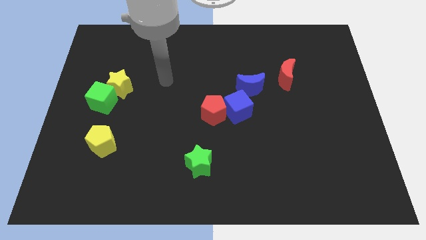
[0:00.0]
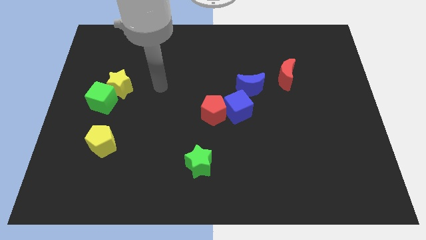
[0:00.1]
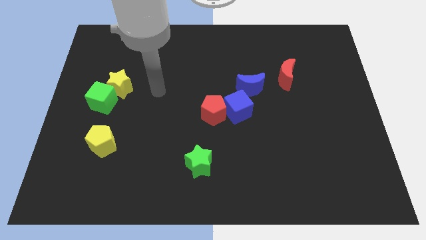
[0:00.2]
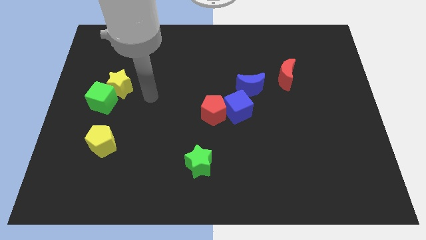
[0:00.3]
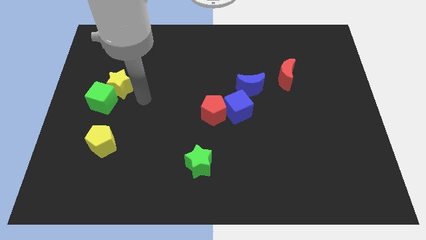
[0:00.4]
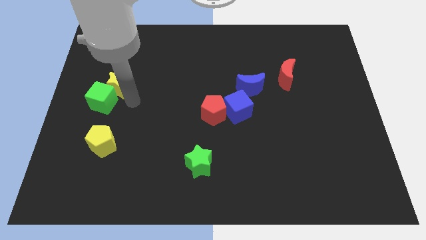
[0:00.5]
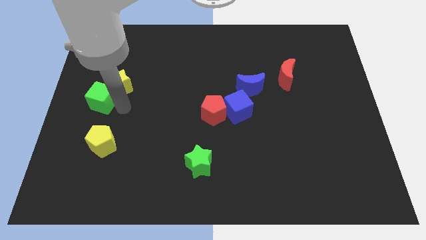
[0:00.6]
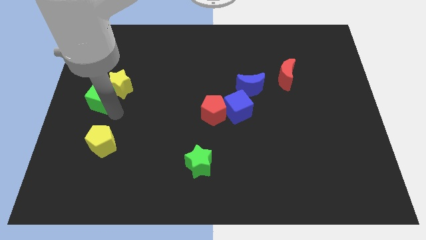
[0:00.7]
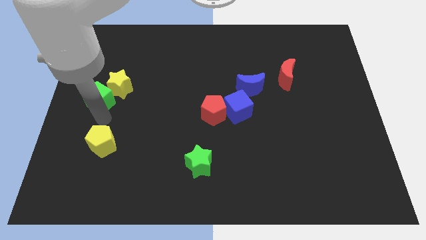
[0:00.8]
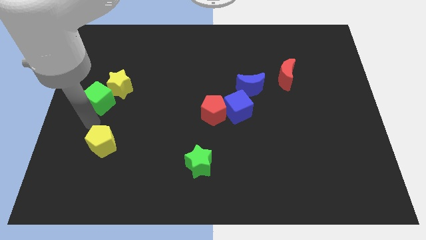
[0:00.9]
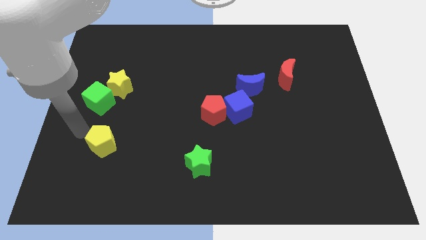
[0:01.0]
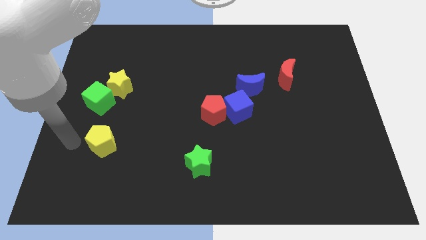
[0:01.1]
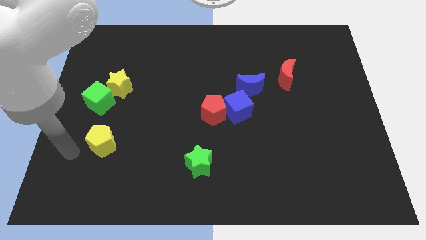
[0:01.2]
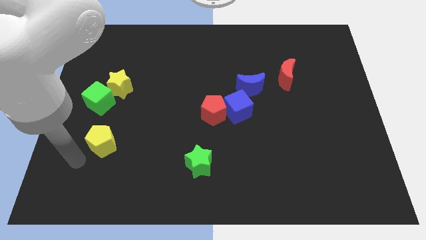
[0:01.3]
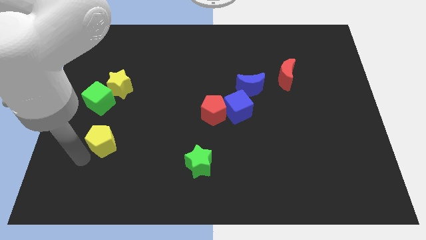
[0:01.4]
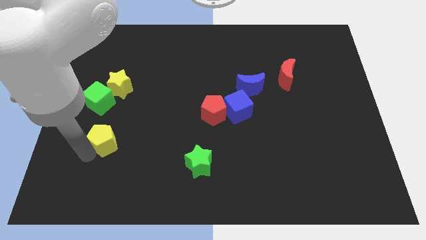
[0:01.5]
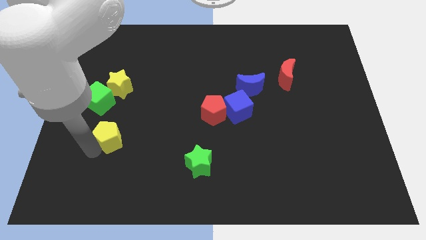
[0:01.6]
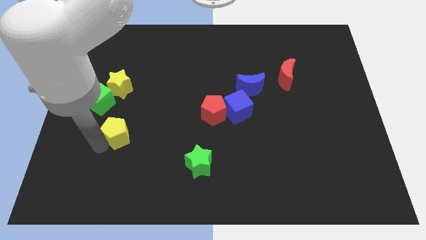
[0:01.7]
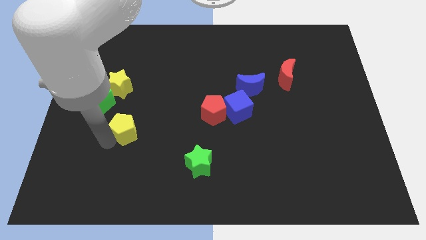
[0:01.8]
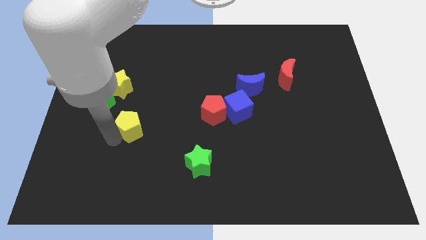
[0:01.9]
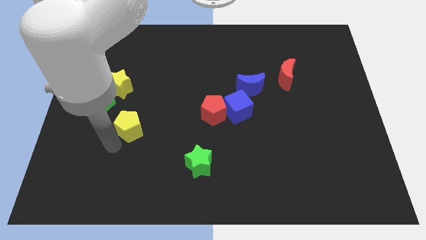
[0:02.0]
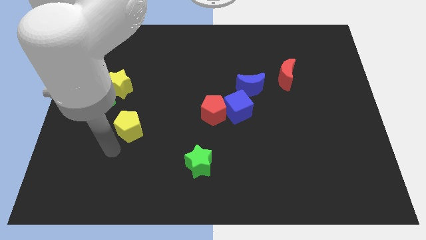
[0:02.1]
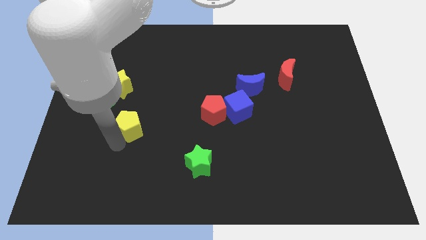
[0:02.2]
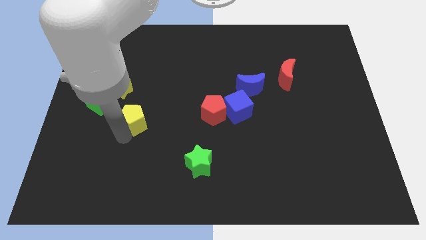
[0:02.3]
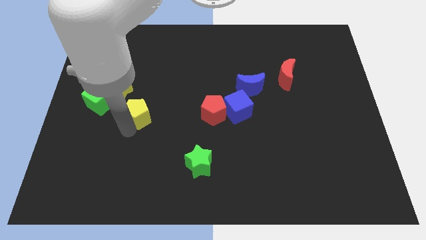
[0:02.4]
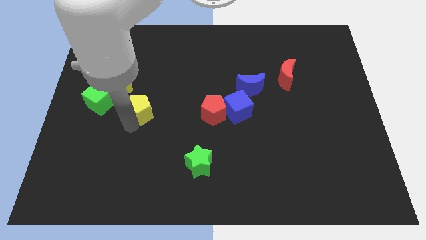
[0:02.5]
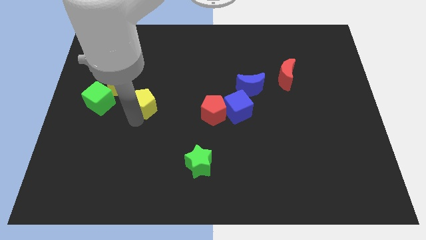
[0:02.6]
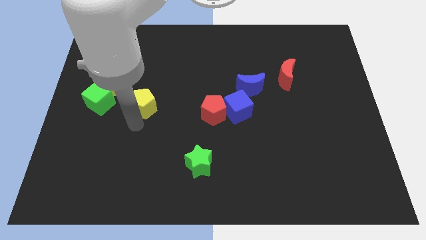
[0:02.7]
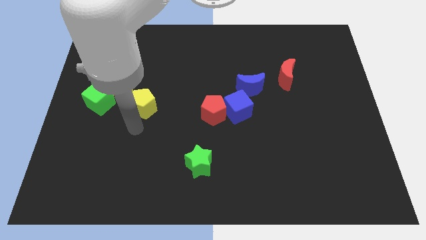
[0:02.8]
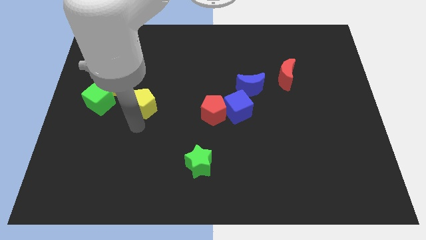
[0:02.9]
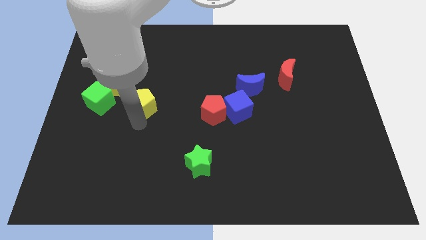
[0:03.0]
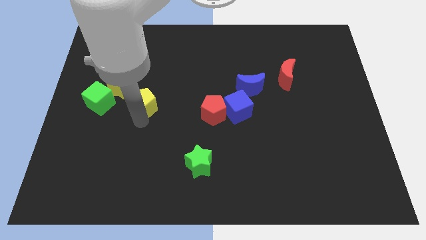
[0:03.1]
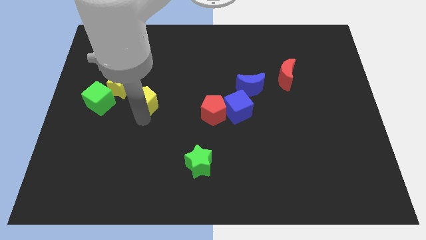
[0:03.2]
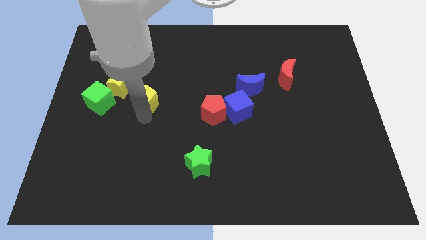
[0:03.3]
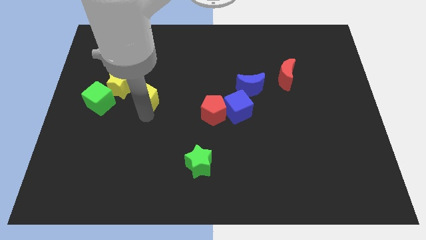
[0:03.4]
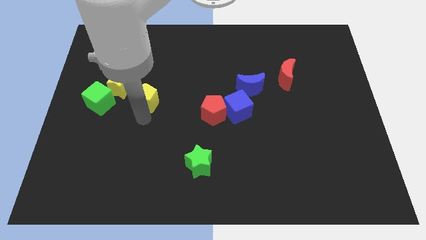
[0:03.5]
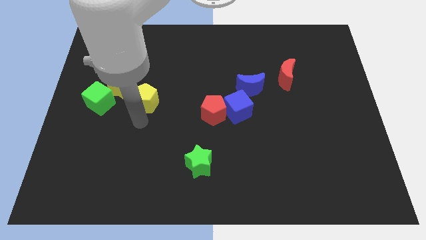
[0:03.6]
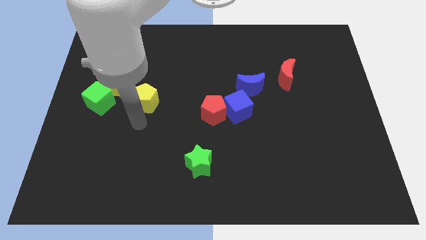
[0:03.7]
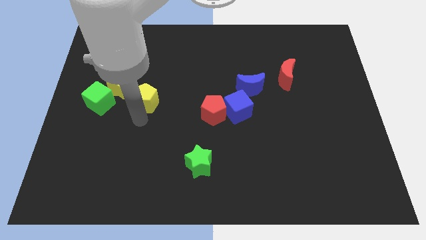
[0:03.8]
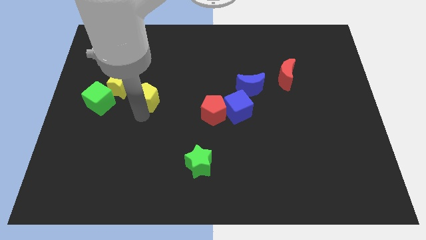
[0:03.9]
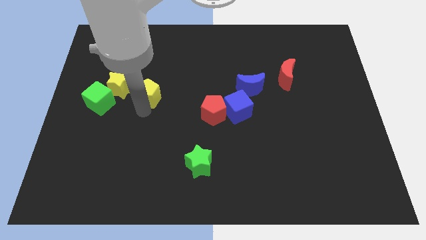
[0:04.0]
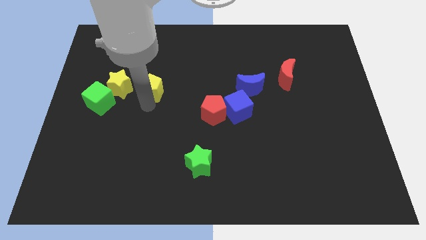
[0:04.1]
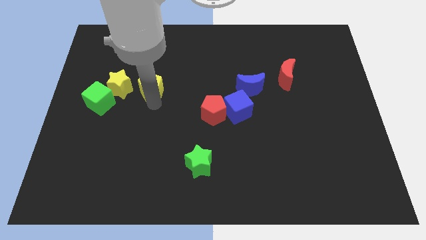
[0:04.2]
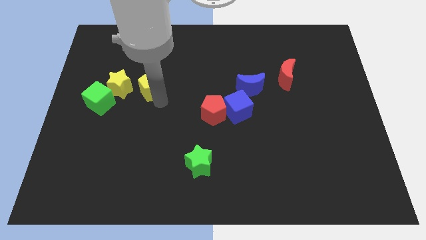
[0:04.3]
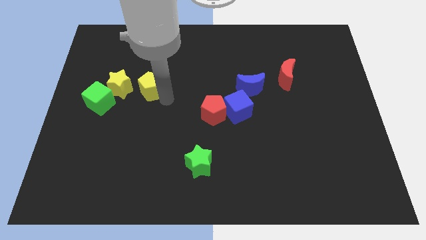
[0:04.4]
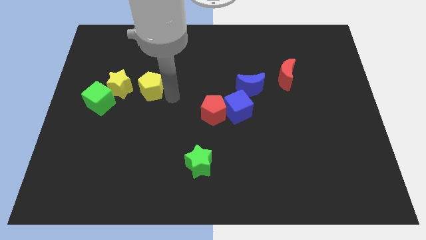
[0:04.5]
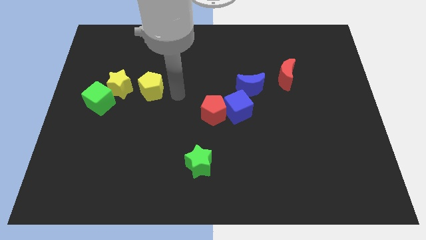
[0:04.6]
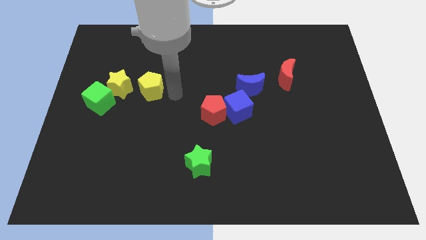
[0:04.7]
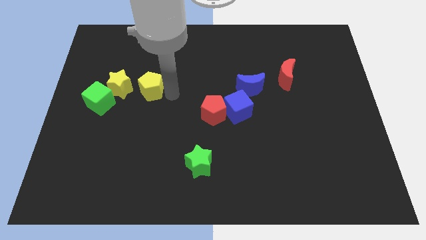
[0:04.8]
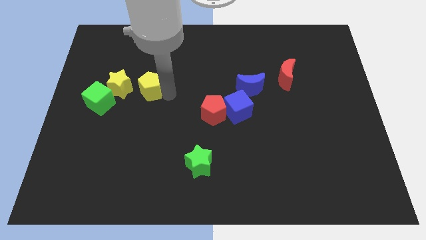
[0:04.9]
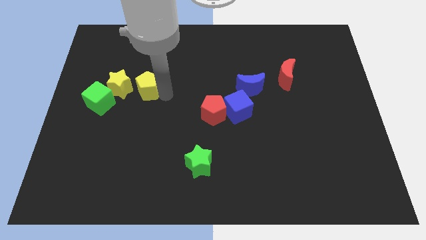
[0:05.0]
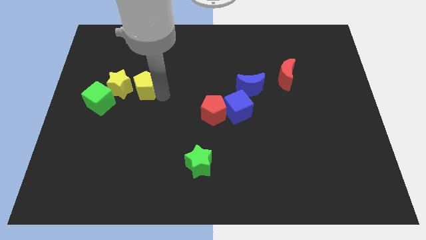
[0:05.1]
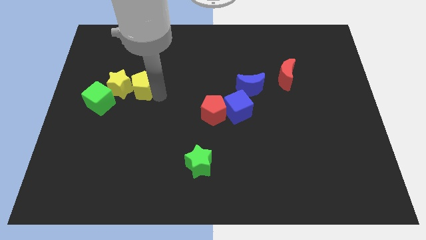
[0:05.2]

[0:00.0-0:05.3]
move the yellow pentagon to the top right side of the green cube

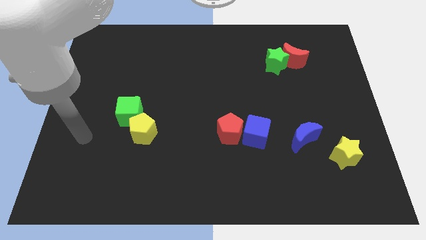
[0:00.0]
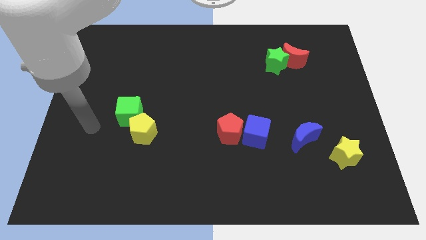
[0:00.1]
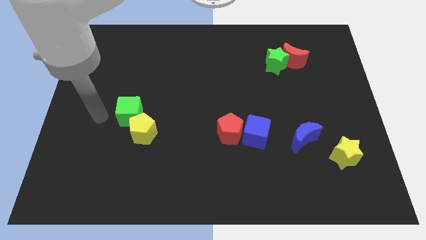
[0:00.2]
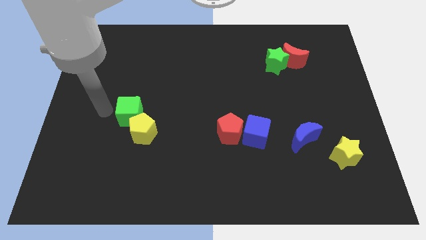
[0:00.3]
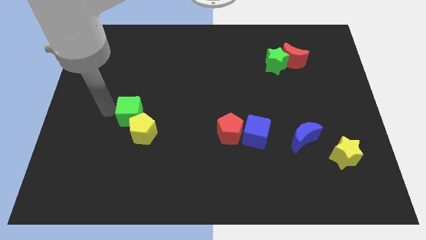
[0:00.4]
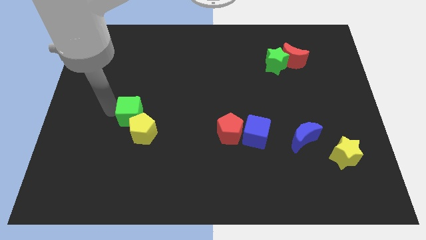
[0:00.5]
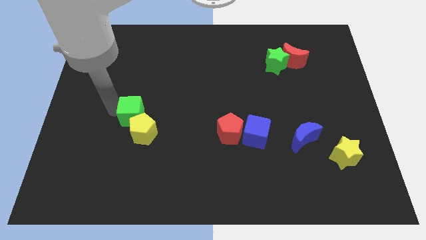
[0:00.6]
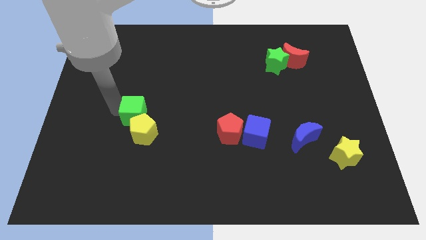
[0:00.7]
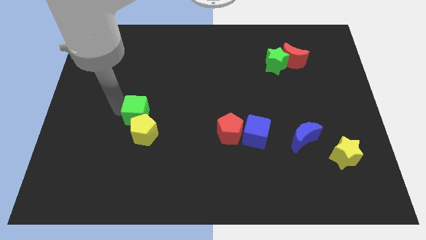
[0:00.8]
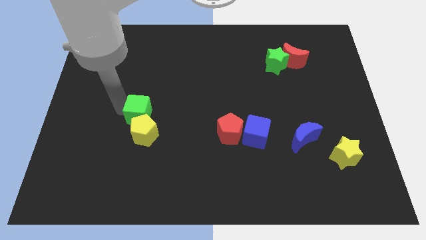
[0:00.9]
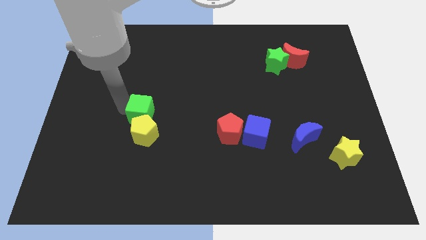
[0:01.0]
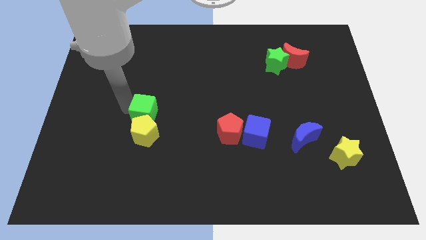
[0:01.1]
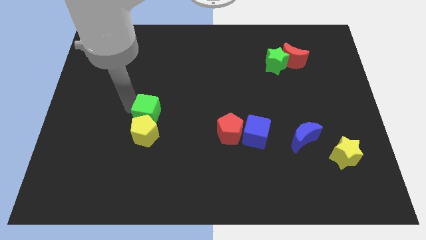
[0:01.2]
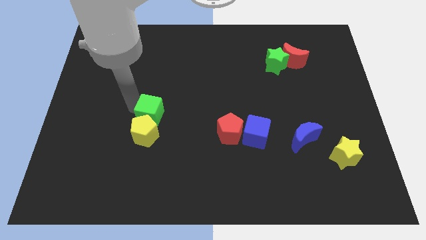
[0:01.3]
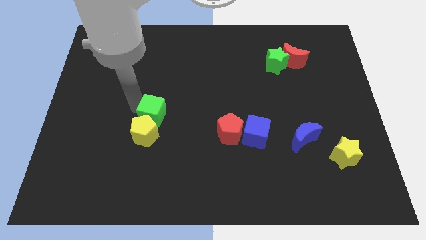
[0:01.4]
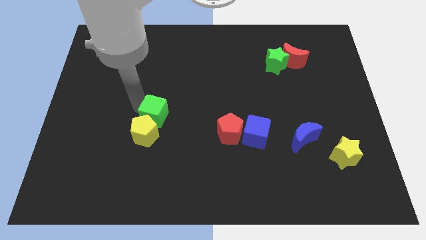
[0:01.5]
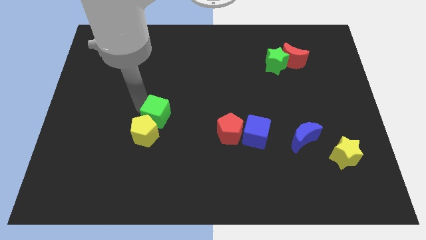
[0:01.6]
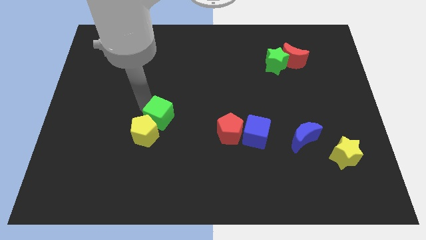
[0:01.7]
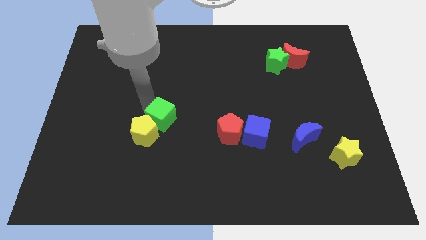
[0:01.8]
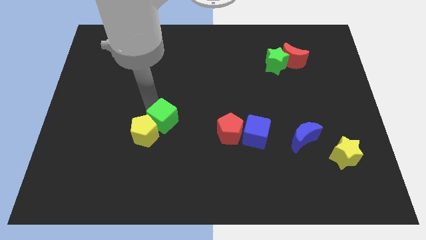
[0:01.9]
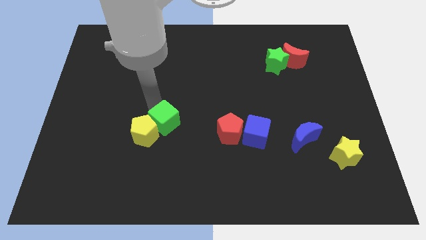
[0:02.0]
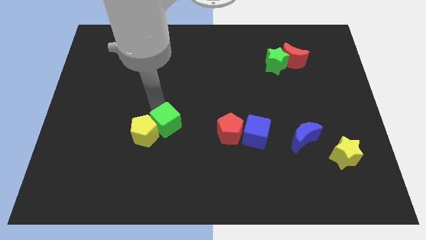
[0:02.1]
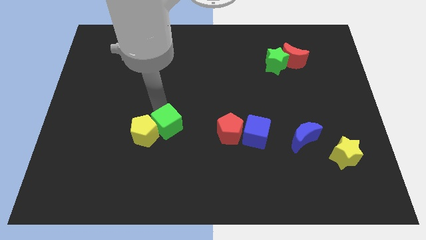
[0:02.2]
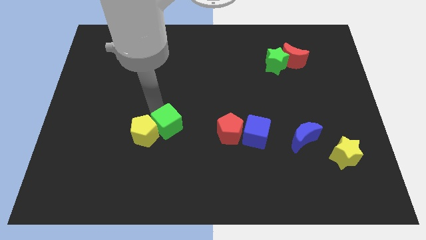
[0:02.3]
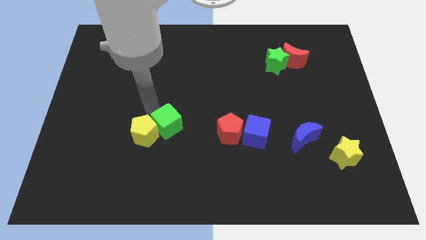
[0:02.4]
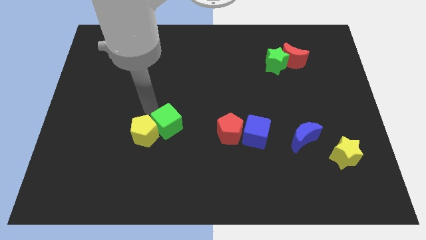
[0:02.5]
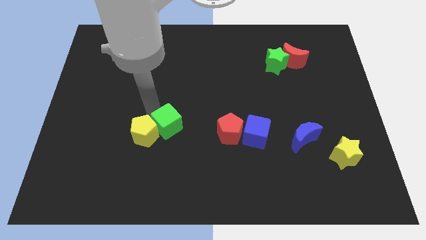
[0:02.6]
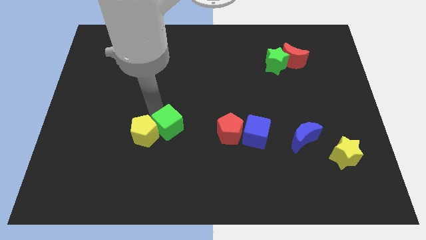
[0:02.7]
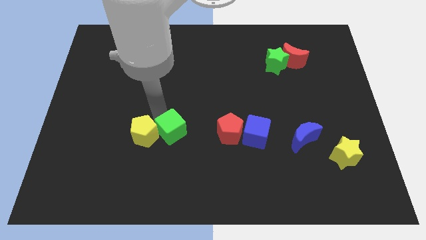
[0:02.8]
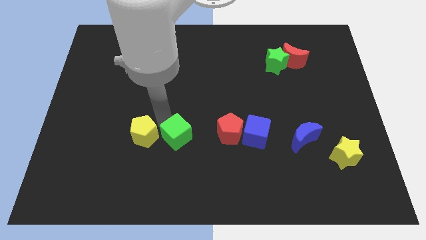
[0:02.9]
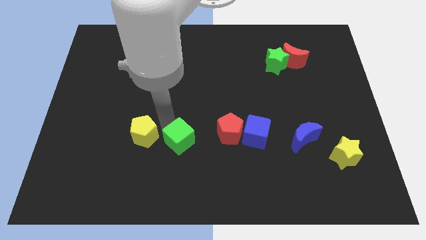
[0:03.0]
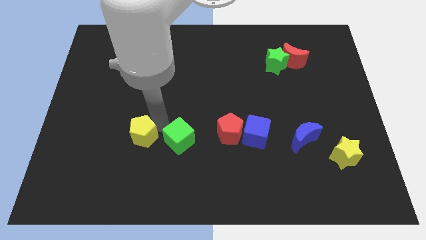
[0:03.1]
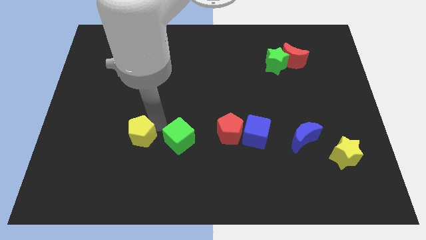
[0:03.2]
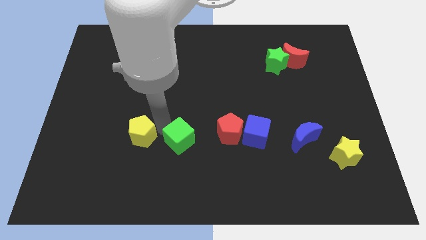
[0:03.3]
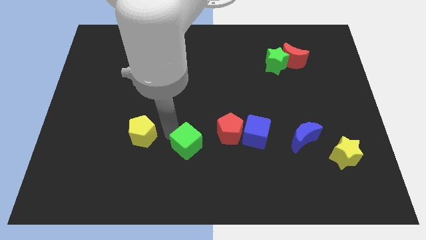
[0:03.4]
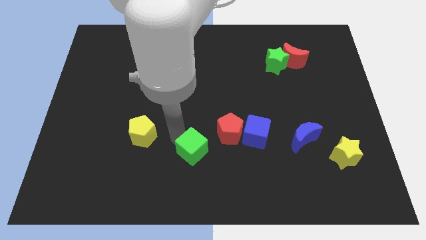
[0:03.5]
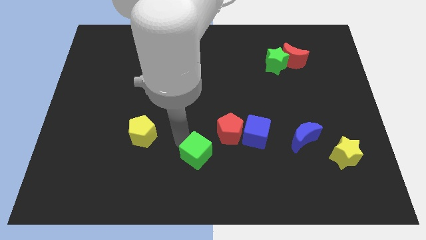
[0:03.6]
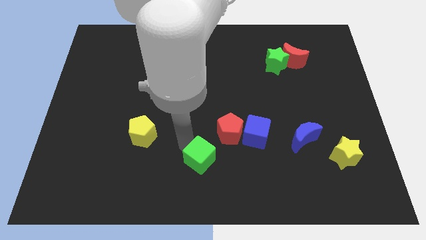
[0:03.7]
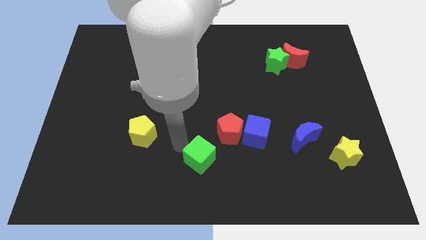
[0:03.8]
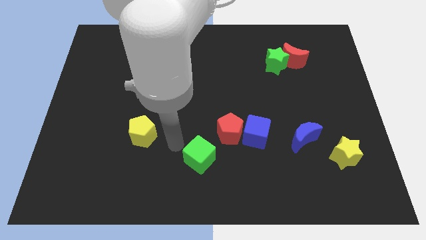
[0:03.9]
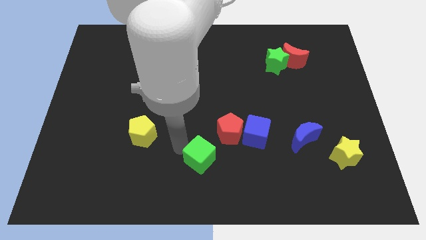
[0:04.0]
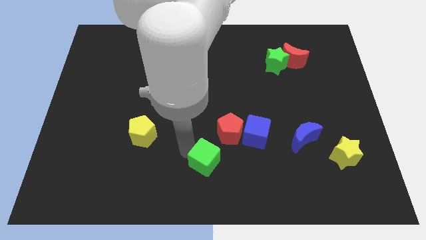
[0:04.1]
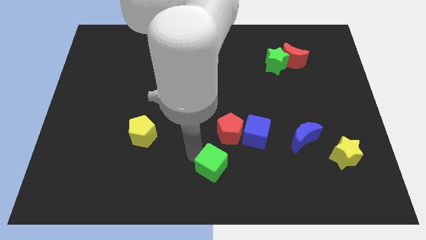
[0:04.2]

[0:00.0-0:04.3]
put the green cube to the bottom side of the red pentagon
